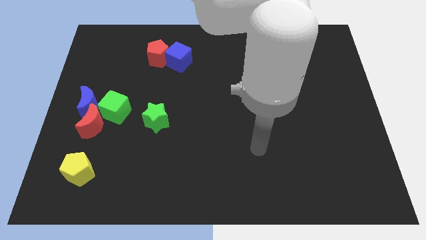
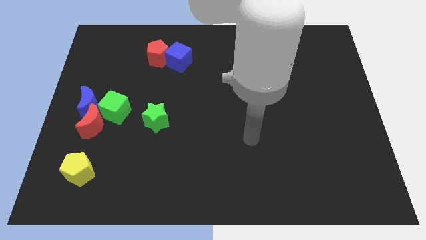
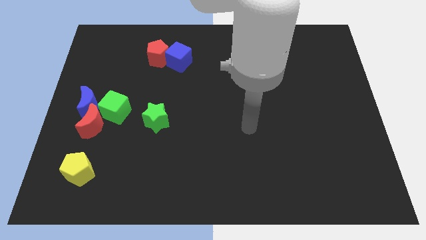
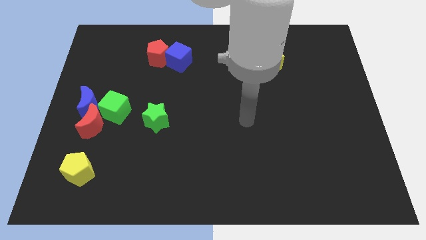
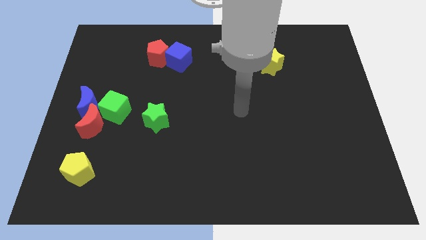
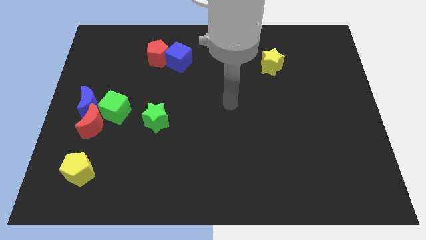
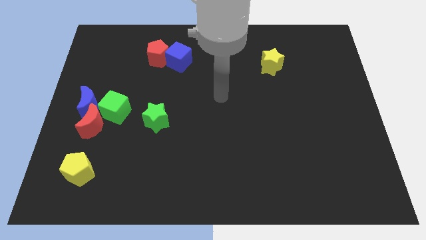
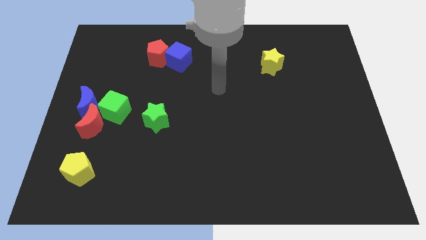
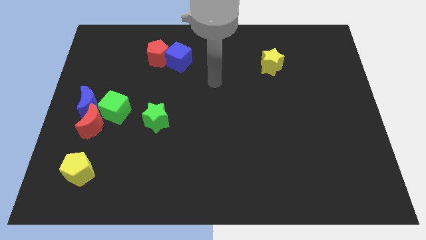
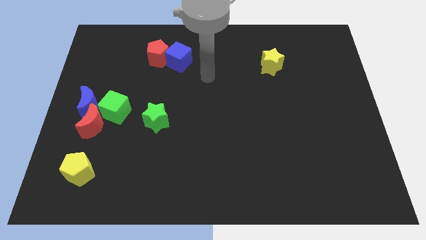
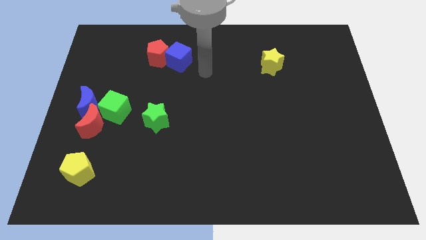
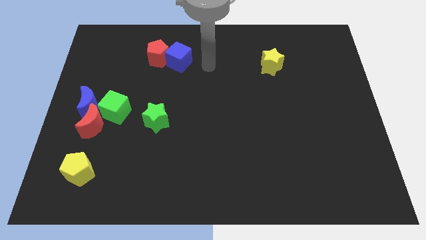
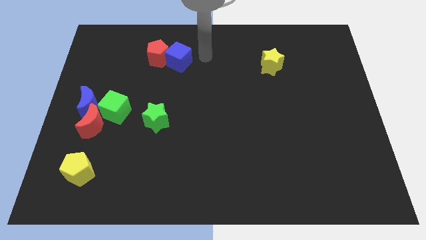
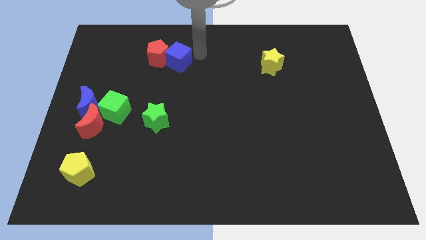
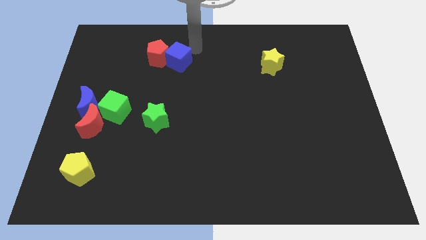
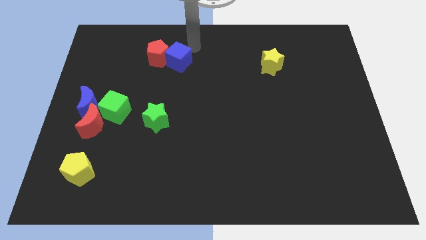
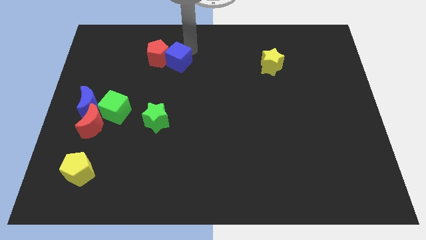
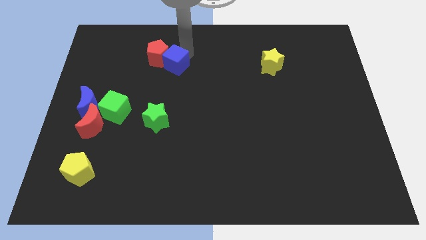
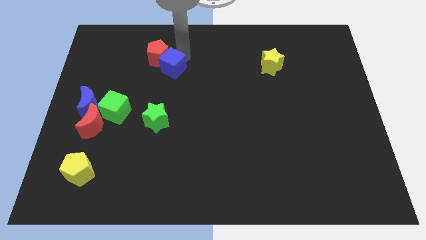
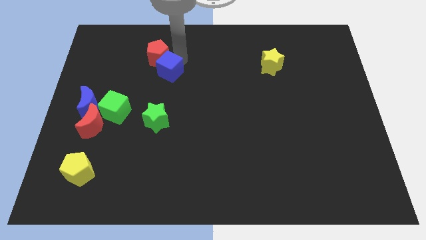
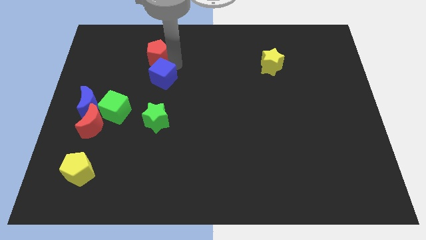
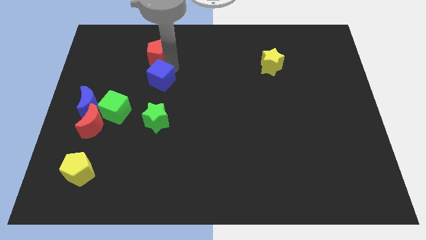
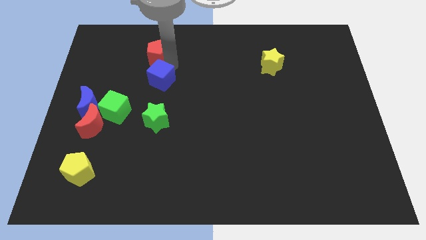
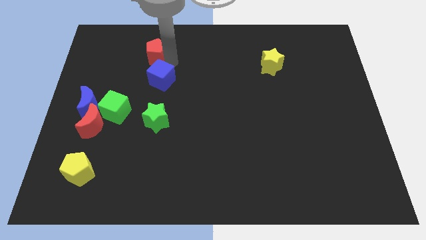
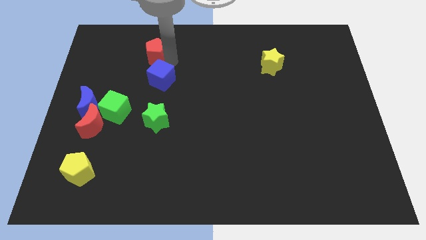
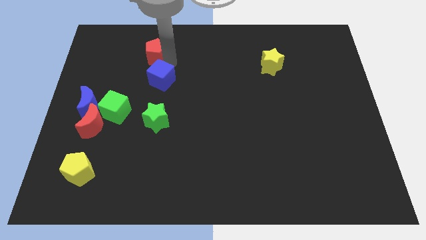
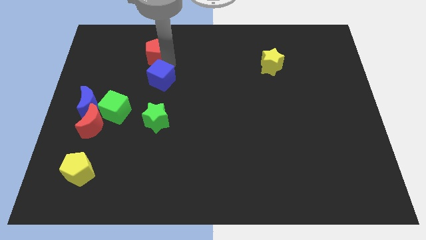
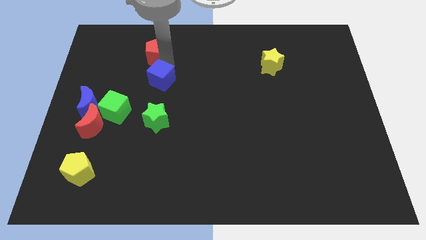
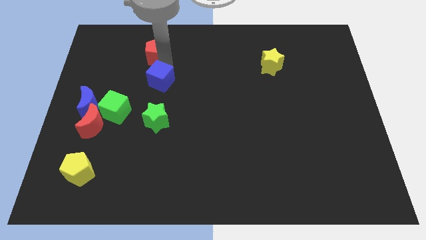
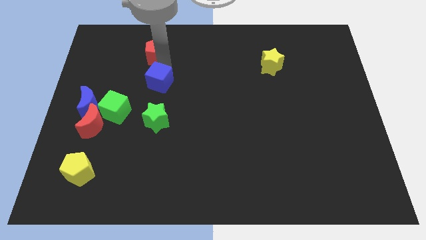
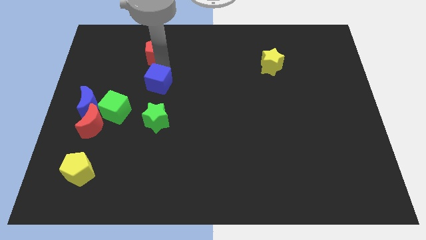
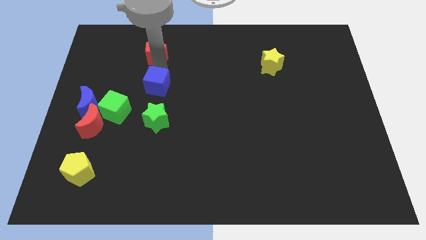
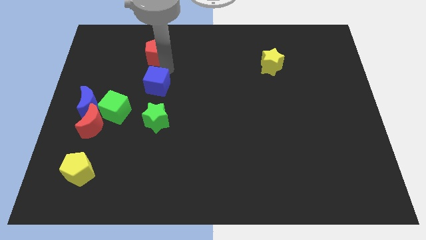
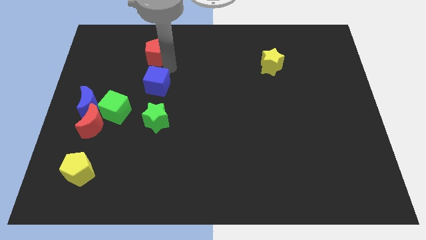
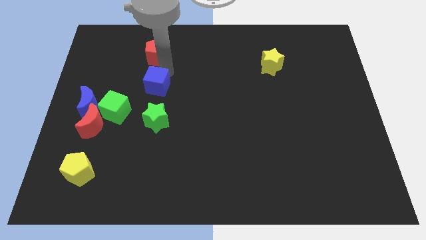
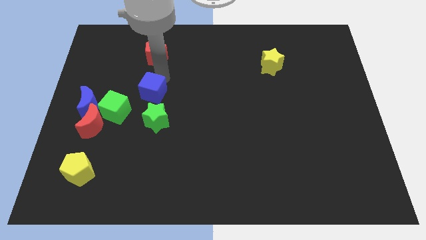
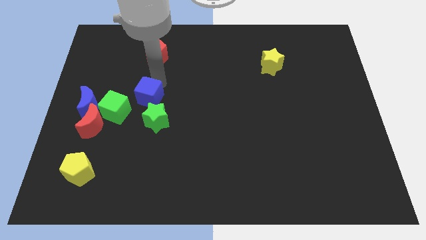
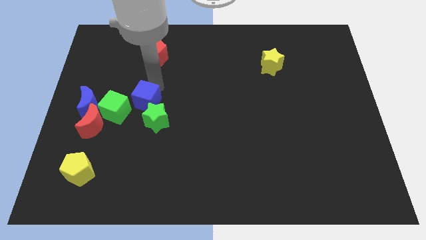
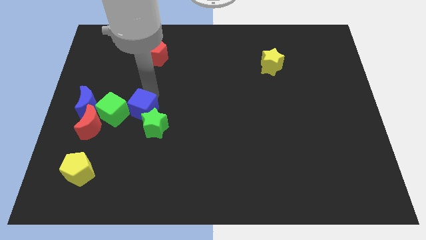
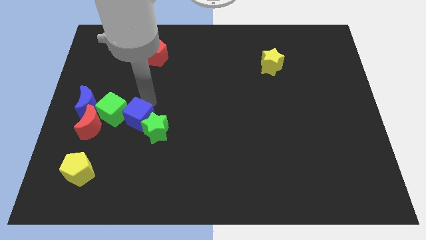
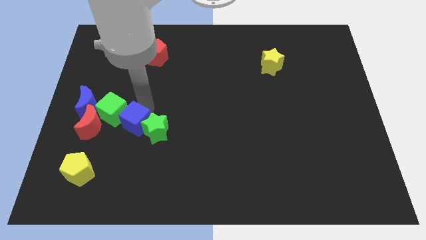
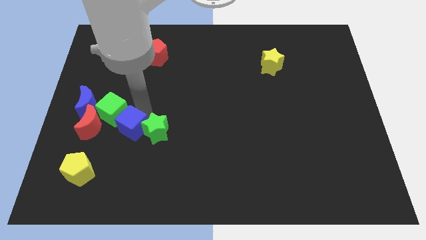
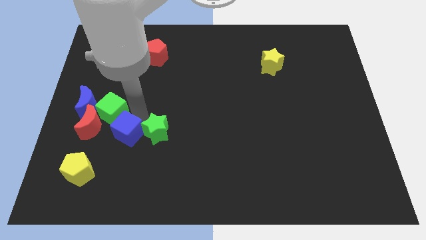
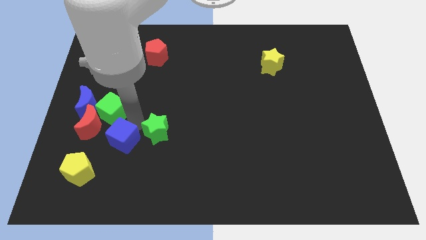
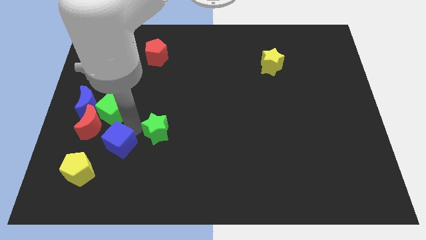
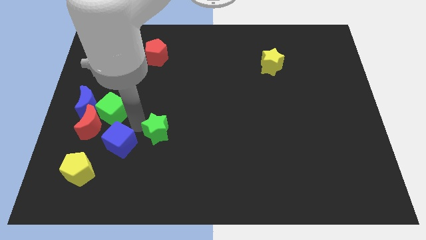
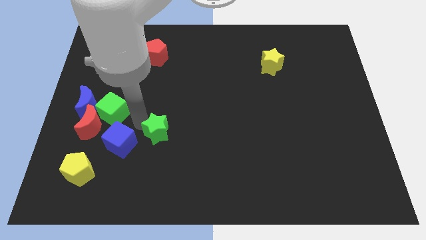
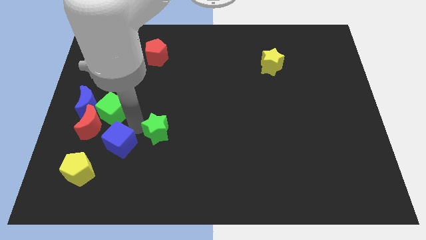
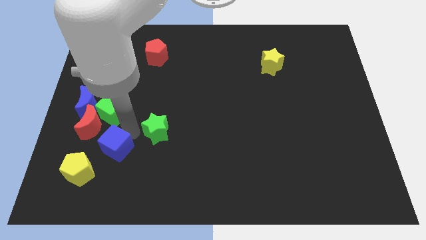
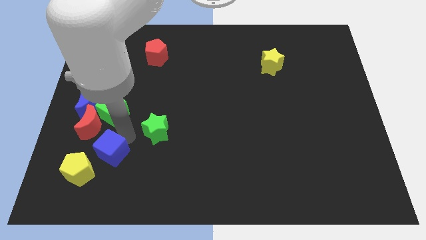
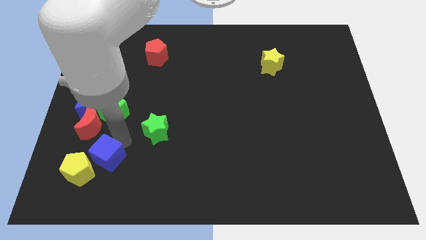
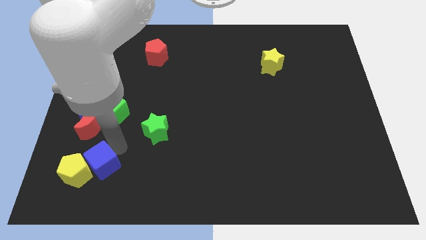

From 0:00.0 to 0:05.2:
push the blue cube towards the yellow pentagon

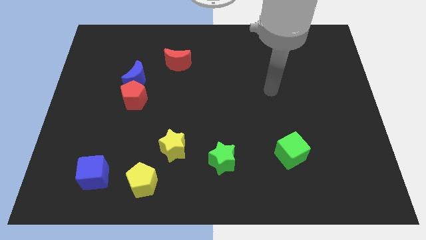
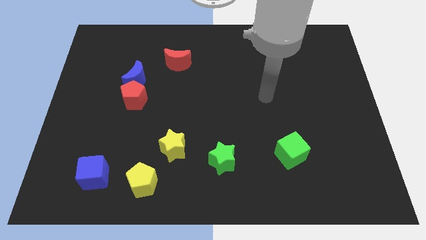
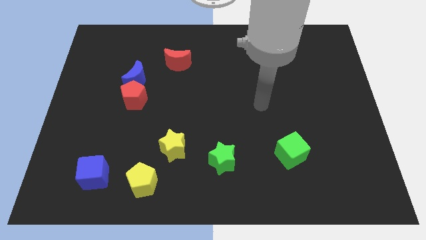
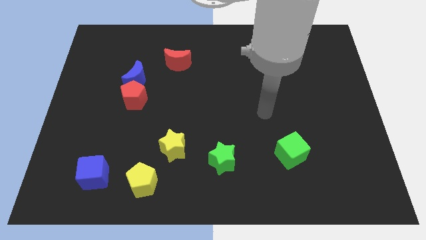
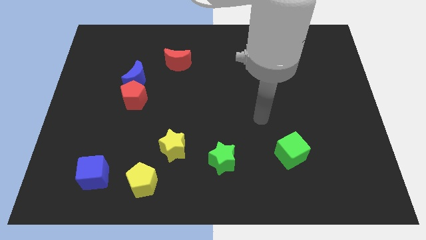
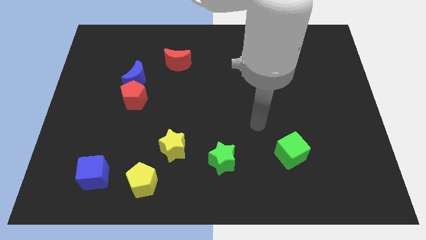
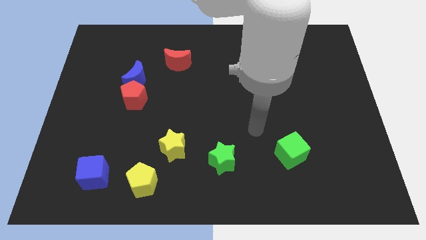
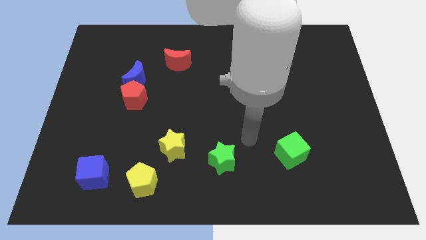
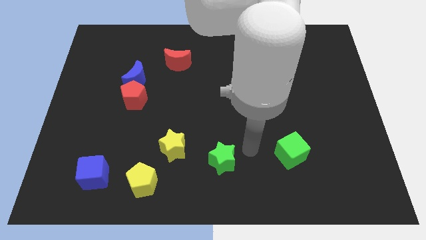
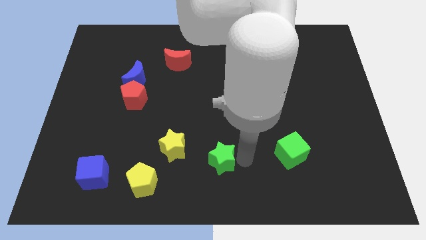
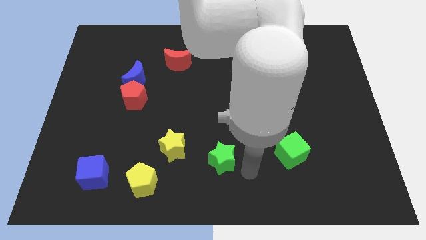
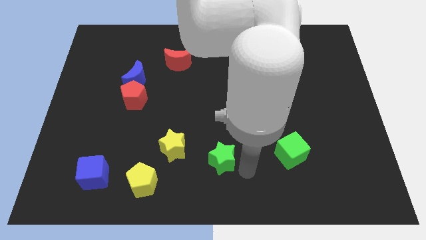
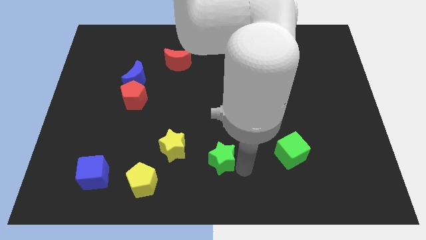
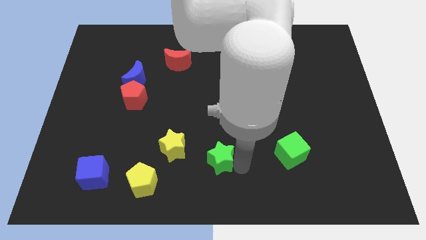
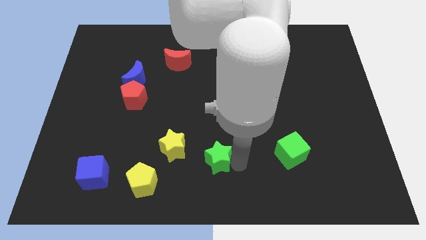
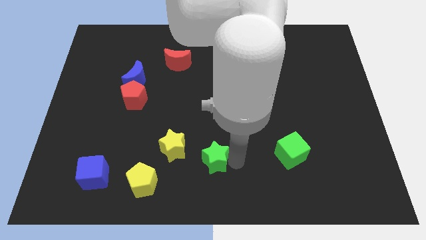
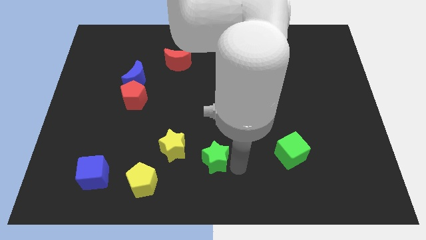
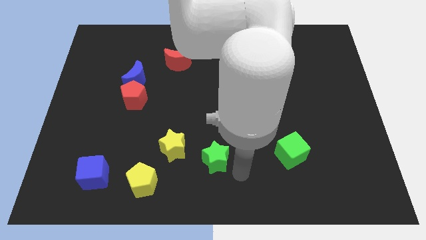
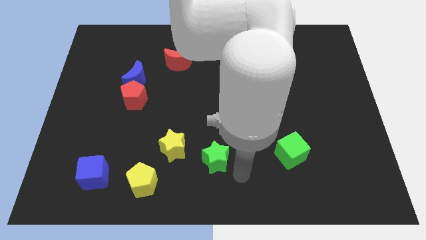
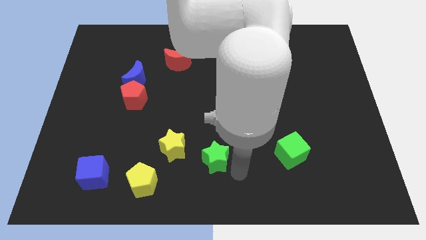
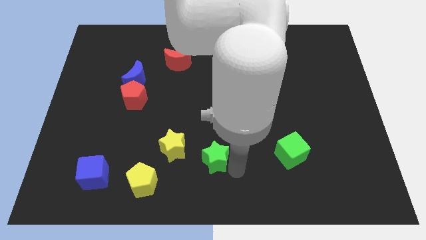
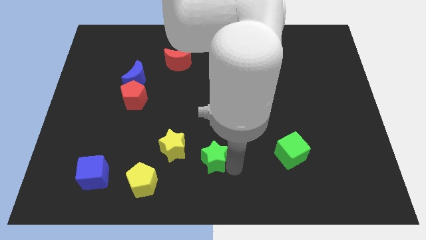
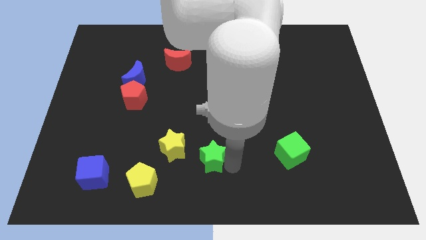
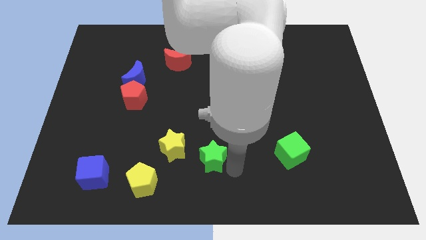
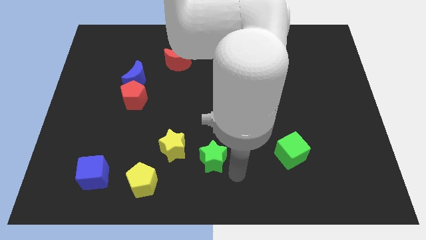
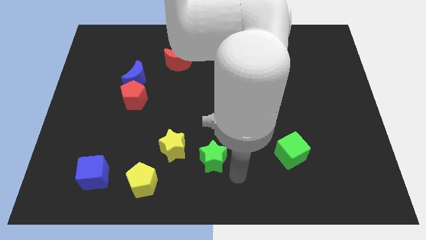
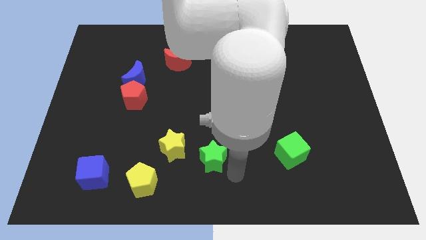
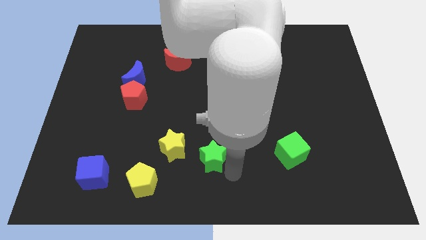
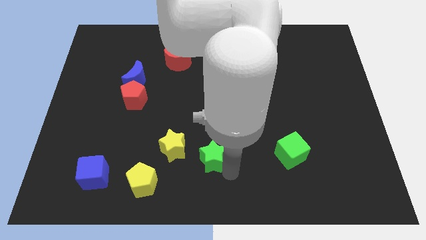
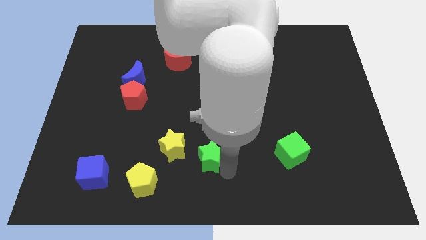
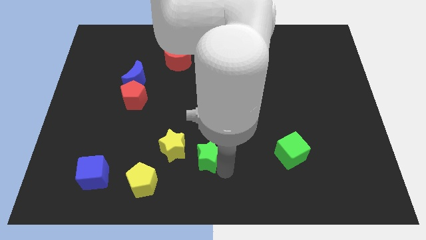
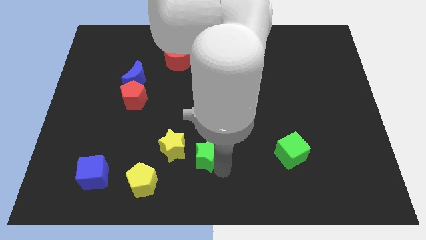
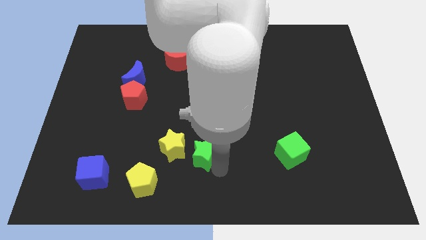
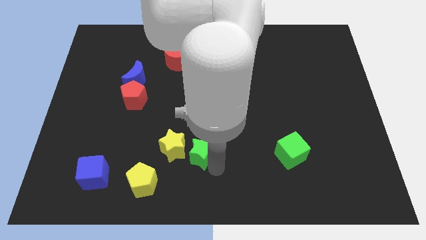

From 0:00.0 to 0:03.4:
push the green star next to the yellow star
